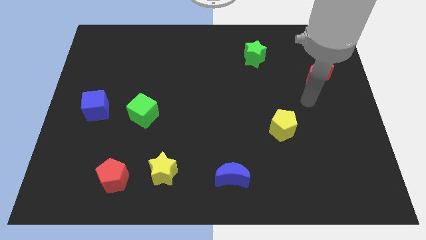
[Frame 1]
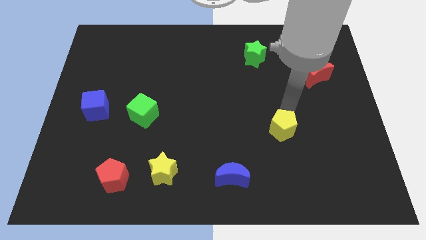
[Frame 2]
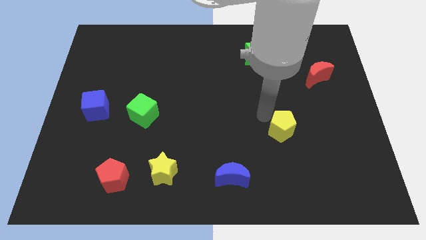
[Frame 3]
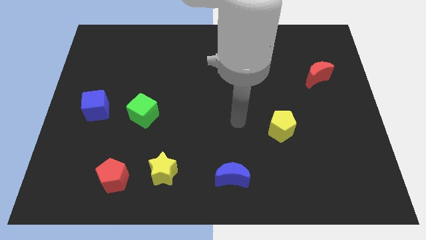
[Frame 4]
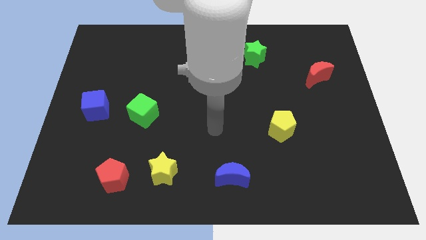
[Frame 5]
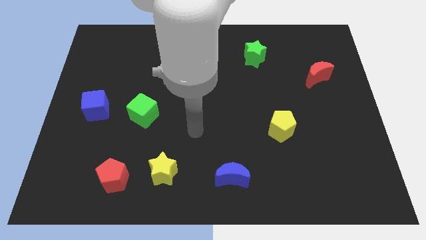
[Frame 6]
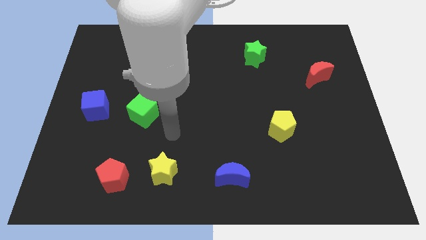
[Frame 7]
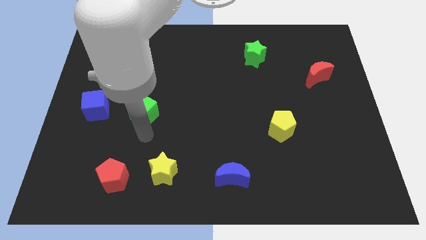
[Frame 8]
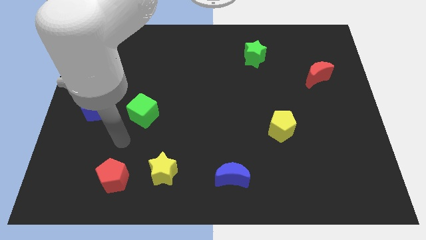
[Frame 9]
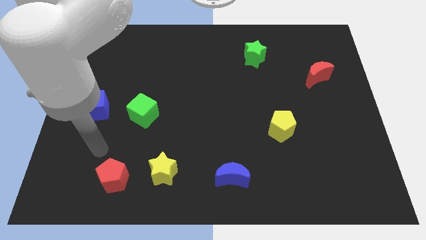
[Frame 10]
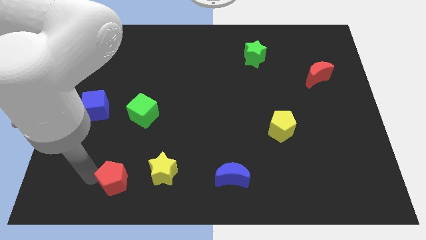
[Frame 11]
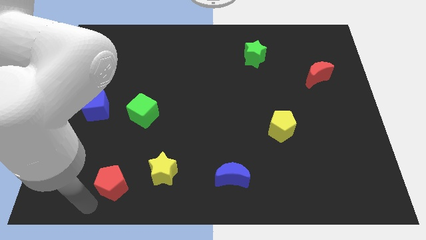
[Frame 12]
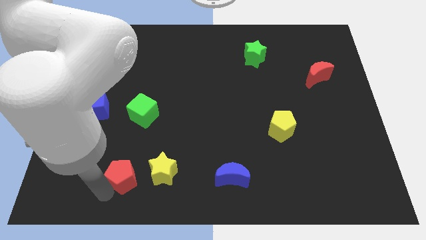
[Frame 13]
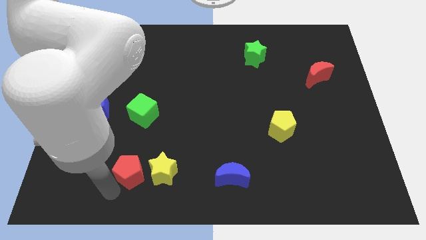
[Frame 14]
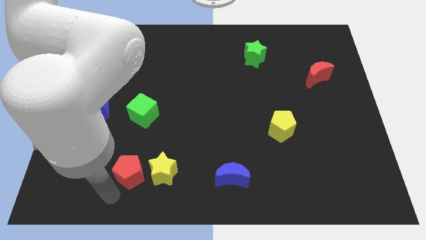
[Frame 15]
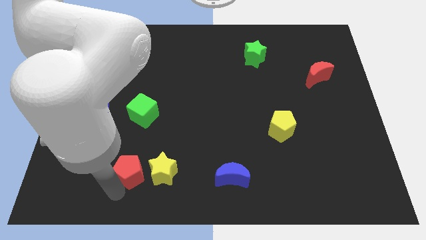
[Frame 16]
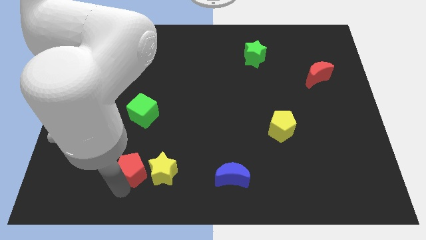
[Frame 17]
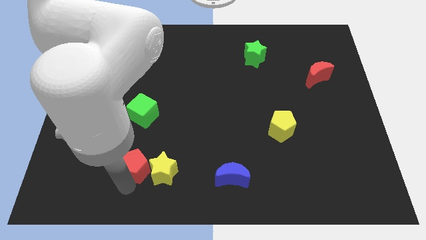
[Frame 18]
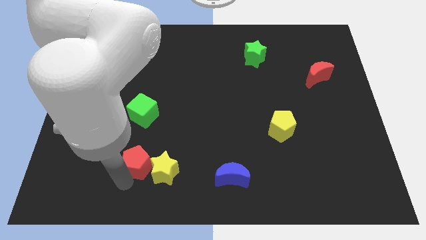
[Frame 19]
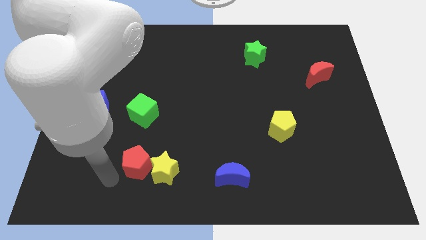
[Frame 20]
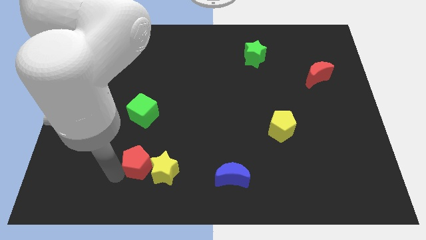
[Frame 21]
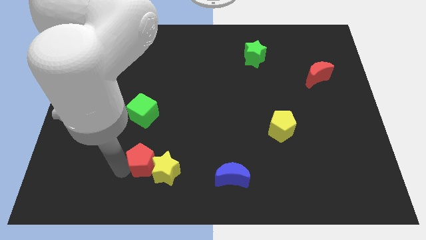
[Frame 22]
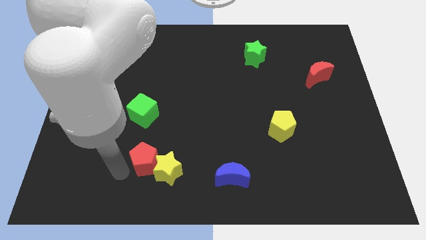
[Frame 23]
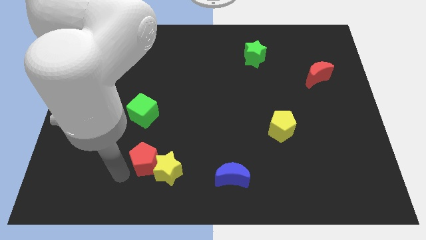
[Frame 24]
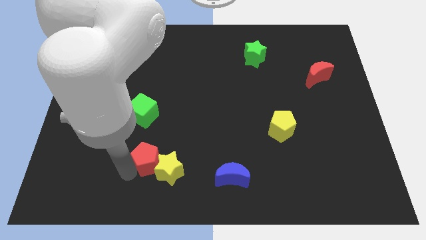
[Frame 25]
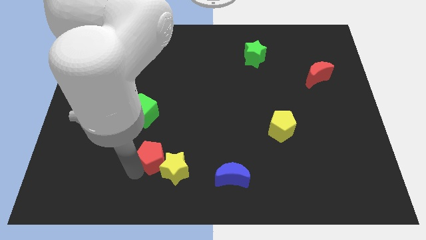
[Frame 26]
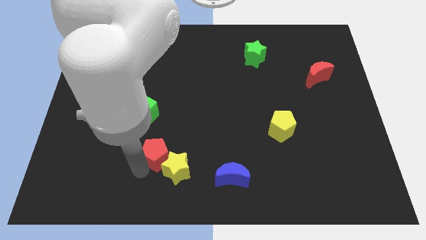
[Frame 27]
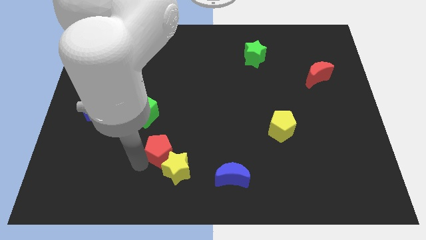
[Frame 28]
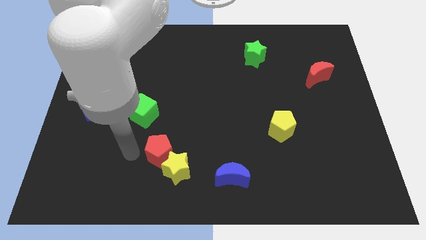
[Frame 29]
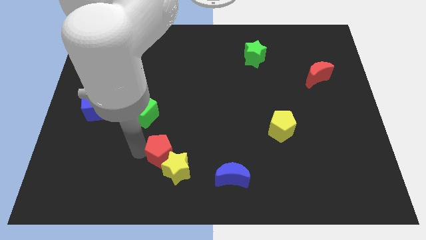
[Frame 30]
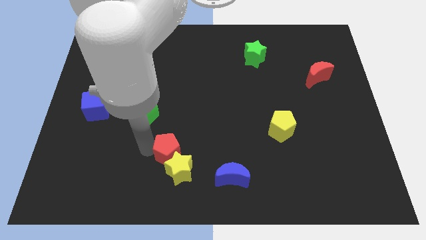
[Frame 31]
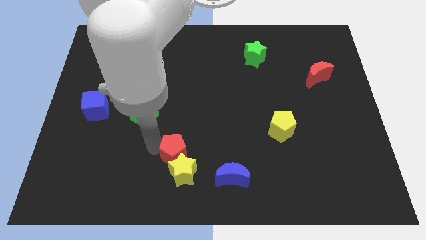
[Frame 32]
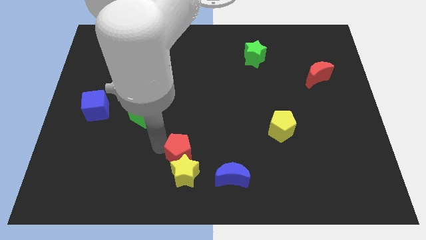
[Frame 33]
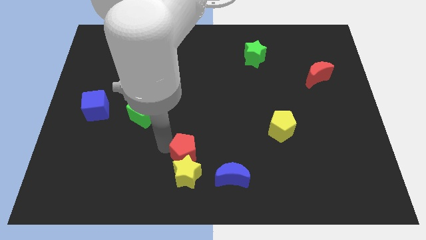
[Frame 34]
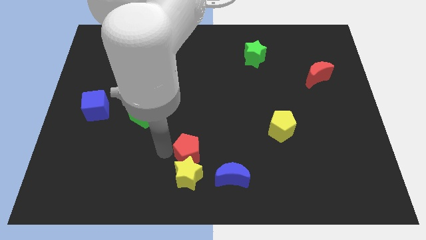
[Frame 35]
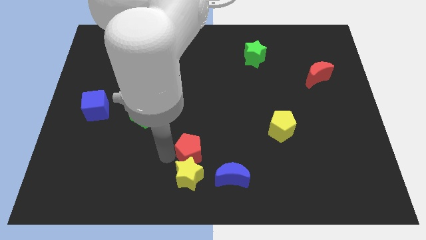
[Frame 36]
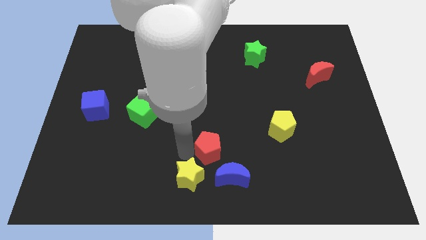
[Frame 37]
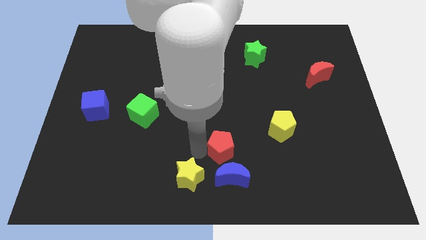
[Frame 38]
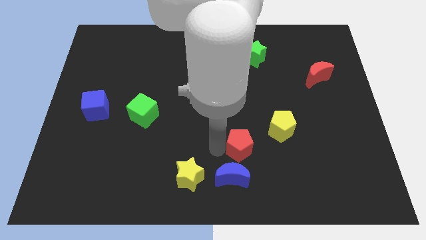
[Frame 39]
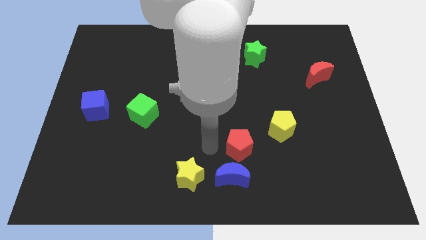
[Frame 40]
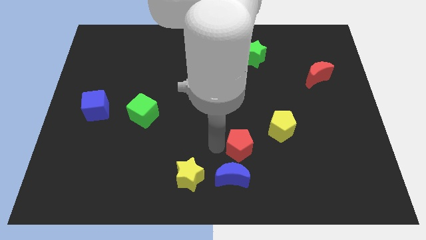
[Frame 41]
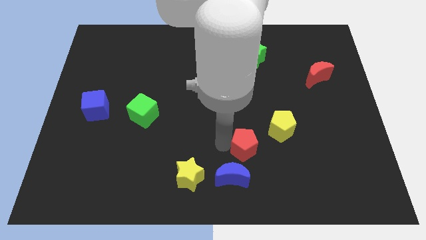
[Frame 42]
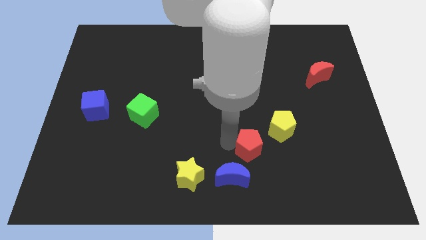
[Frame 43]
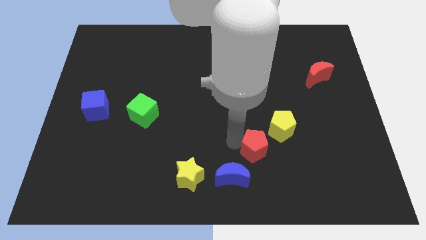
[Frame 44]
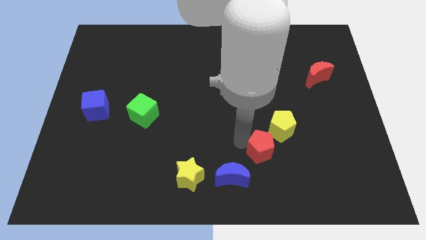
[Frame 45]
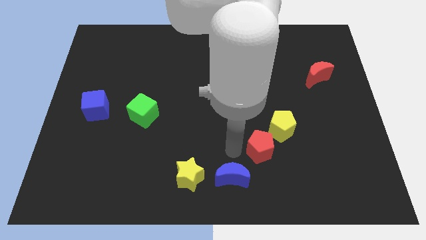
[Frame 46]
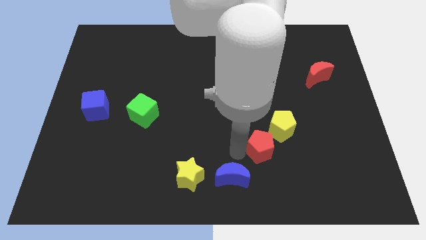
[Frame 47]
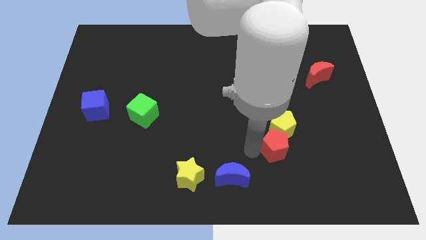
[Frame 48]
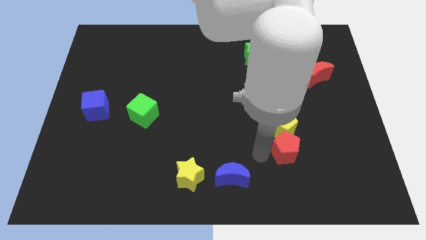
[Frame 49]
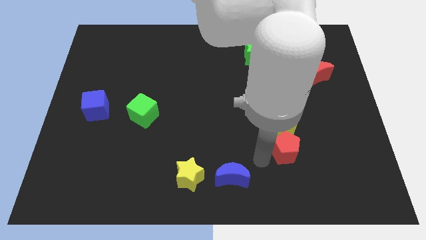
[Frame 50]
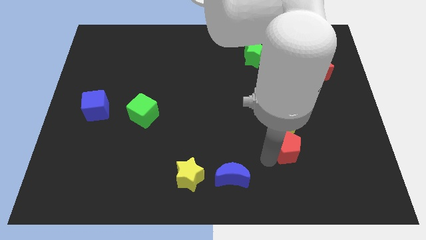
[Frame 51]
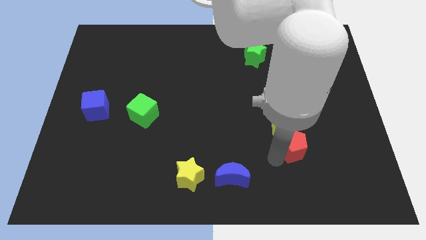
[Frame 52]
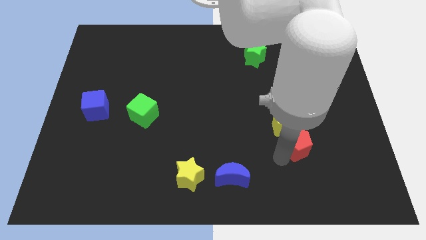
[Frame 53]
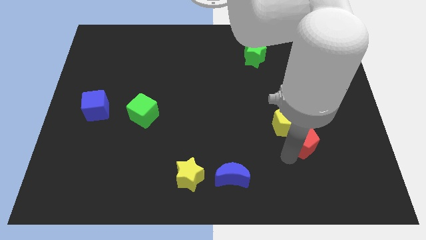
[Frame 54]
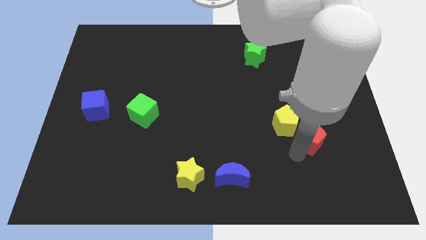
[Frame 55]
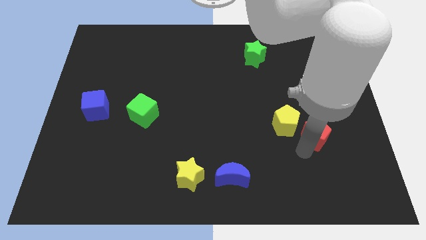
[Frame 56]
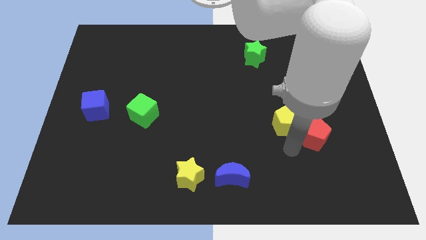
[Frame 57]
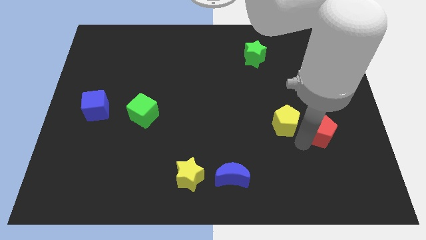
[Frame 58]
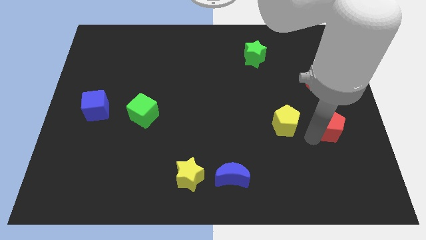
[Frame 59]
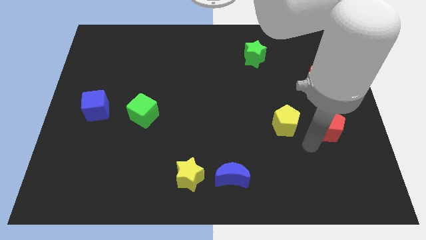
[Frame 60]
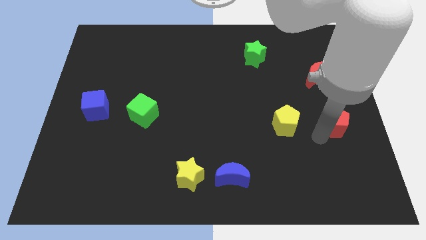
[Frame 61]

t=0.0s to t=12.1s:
put the red pentagon to the center right

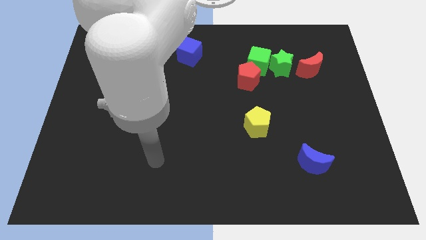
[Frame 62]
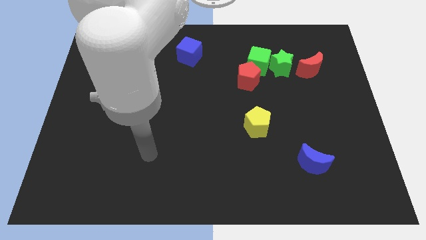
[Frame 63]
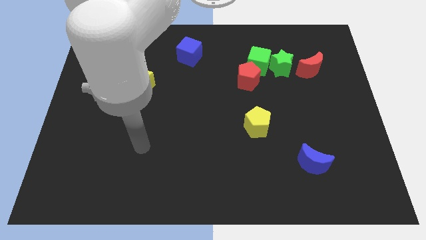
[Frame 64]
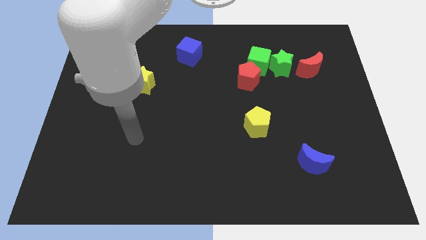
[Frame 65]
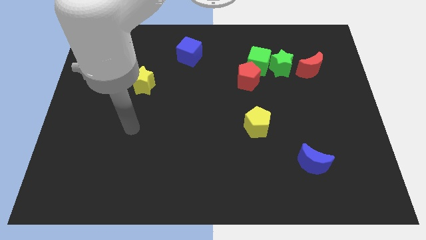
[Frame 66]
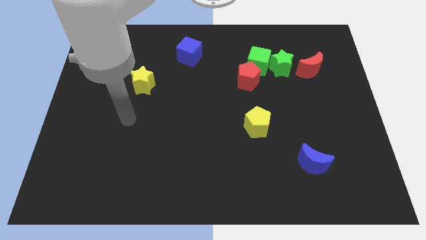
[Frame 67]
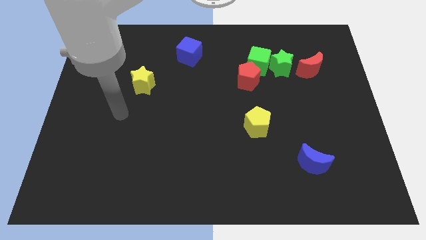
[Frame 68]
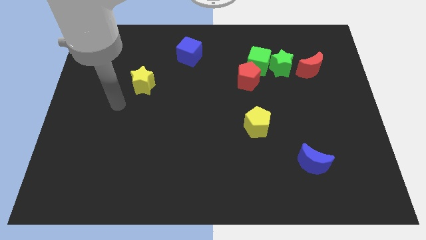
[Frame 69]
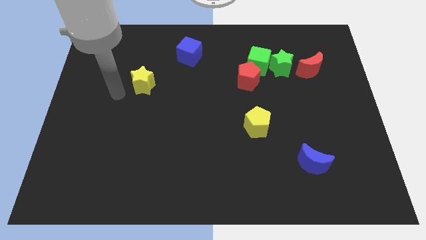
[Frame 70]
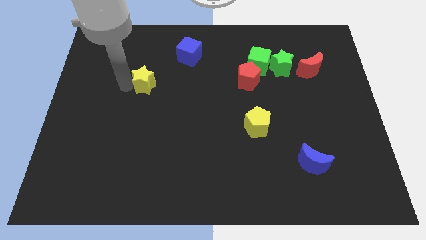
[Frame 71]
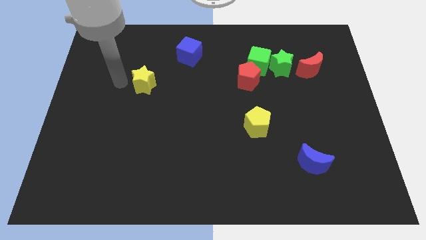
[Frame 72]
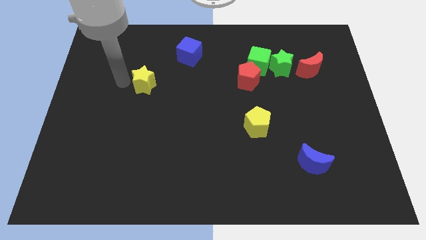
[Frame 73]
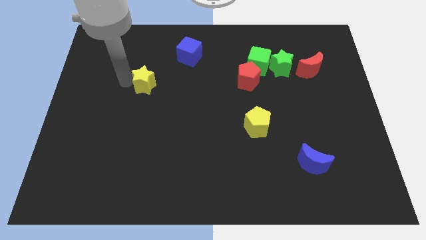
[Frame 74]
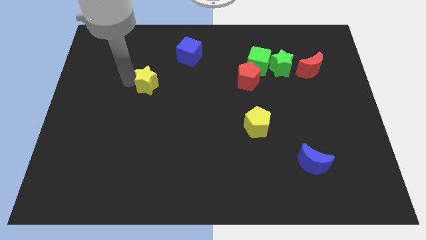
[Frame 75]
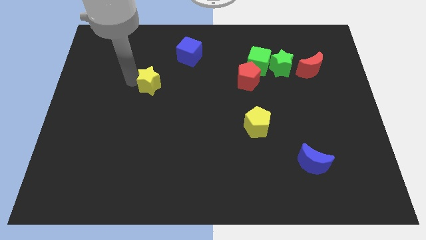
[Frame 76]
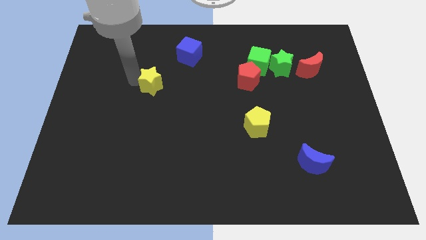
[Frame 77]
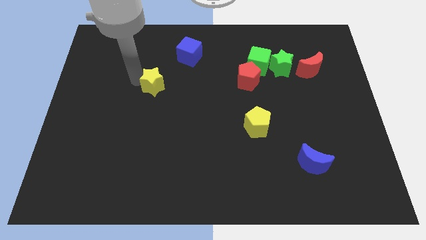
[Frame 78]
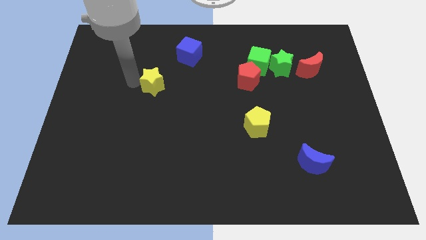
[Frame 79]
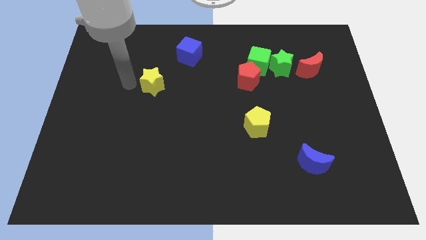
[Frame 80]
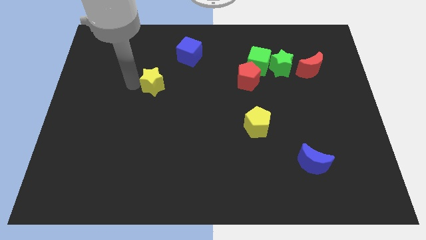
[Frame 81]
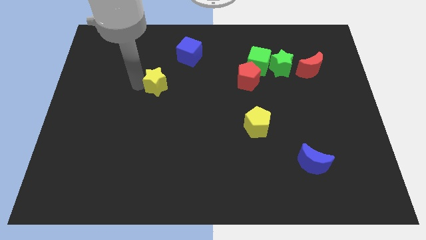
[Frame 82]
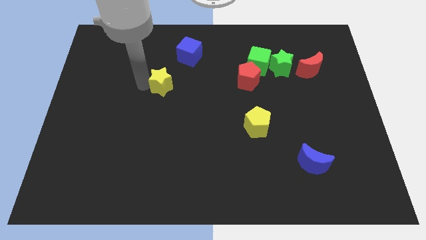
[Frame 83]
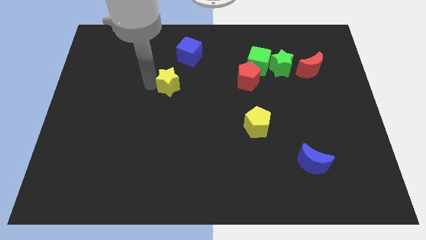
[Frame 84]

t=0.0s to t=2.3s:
move the yellow star to the middle
